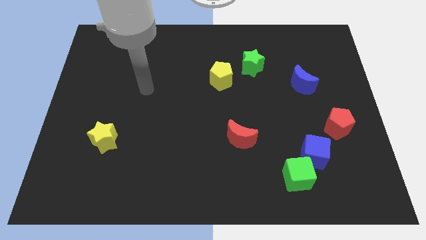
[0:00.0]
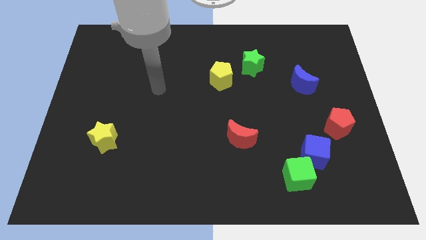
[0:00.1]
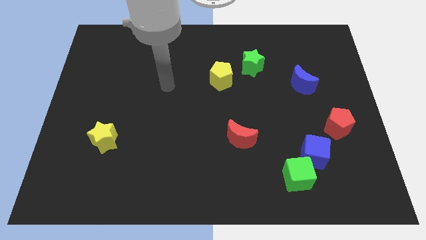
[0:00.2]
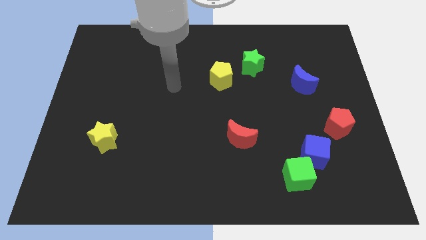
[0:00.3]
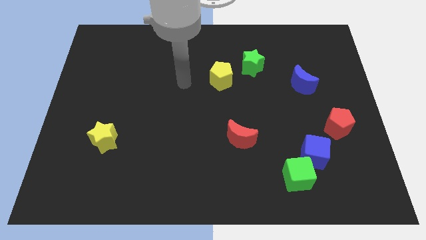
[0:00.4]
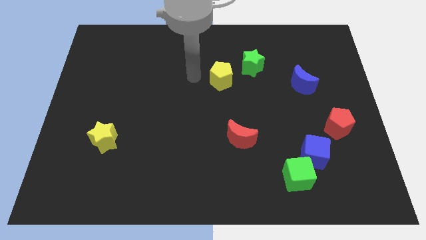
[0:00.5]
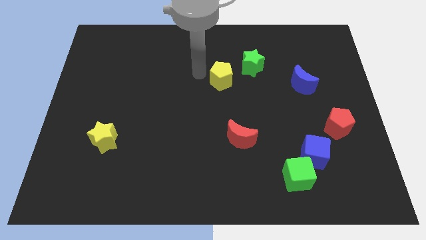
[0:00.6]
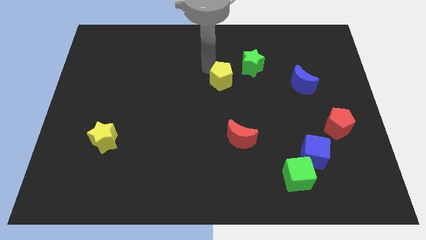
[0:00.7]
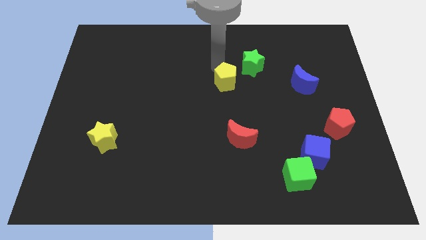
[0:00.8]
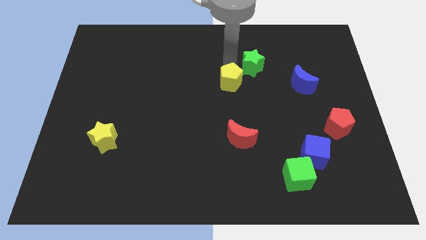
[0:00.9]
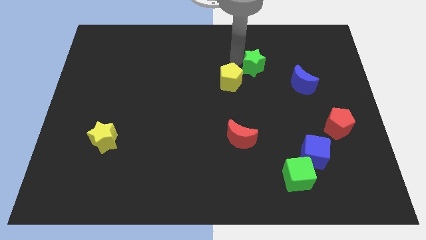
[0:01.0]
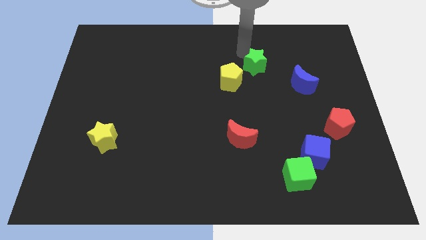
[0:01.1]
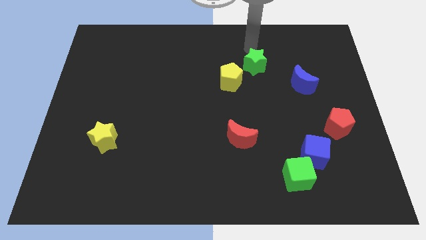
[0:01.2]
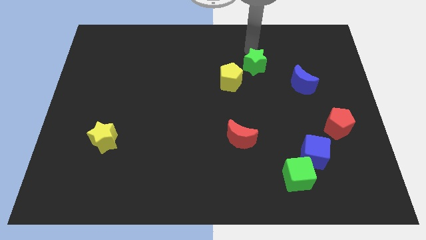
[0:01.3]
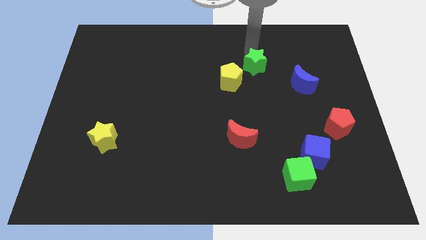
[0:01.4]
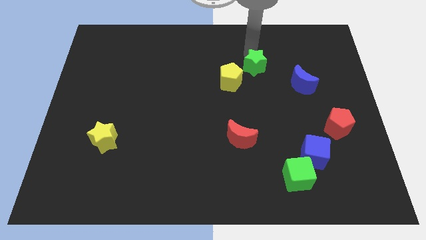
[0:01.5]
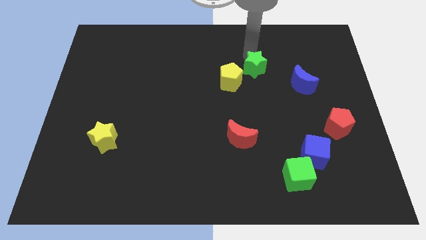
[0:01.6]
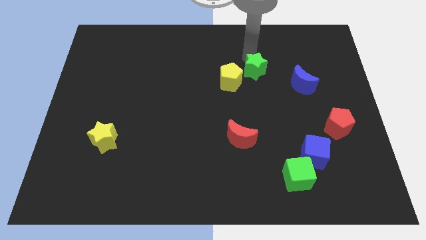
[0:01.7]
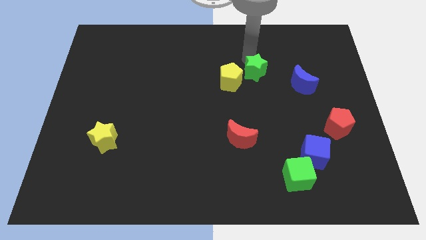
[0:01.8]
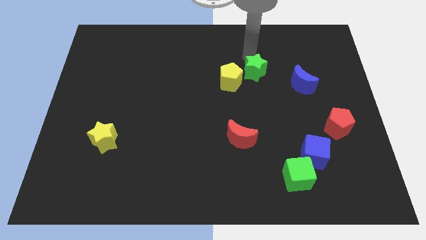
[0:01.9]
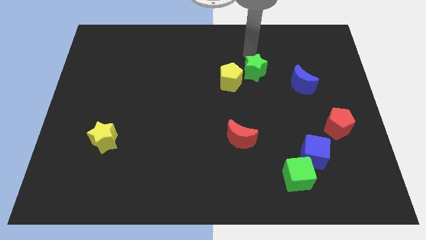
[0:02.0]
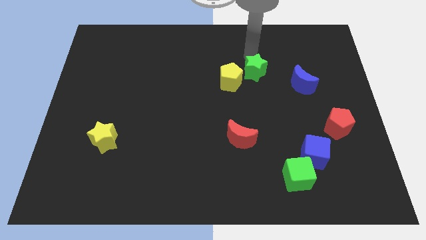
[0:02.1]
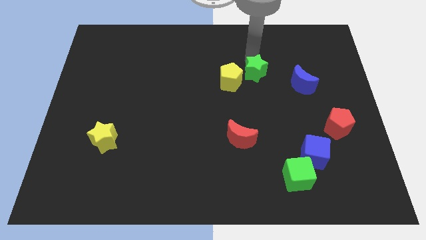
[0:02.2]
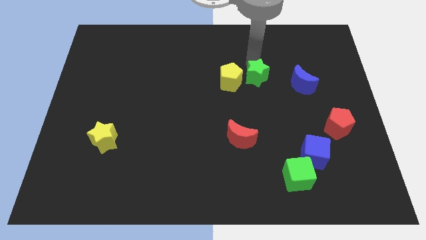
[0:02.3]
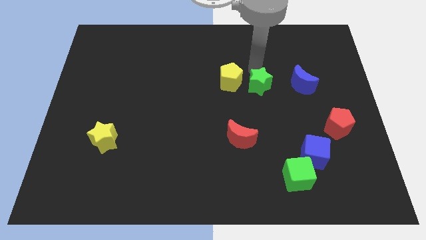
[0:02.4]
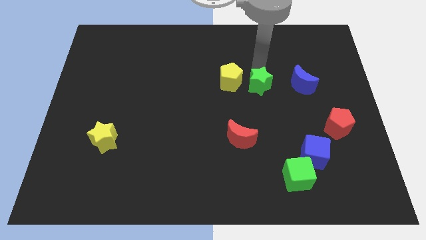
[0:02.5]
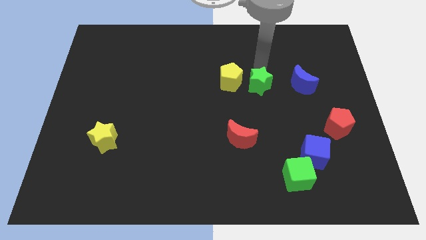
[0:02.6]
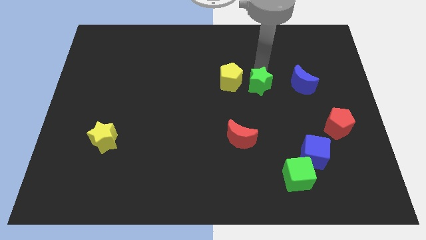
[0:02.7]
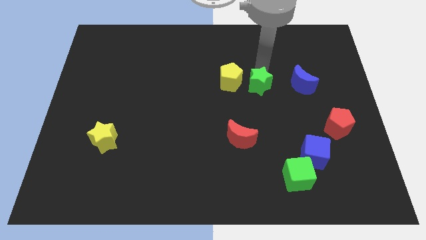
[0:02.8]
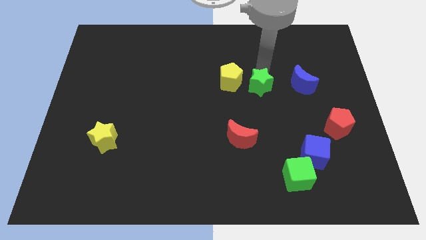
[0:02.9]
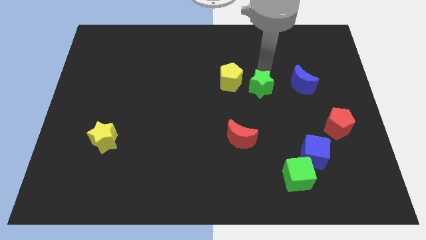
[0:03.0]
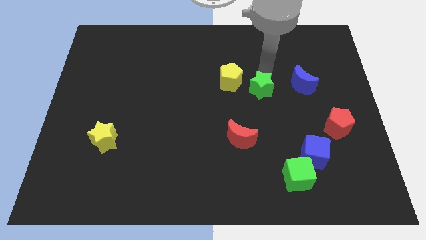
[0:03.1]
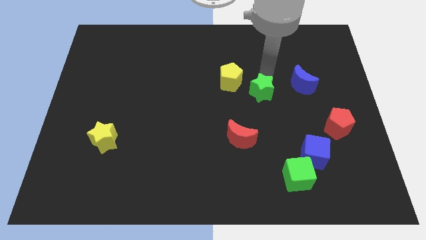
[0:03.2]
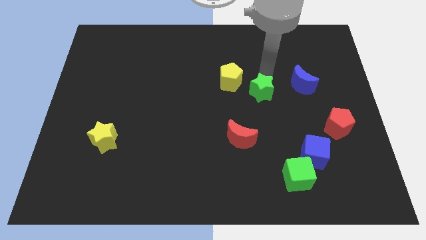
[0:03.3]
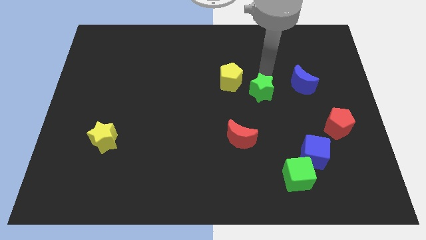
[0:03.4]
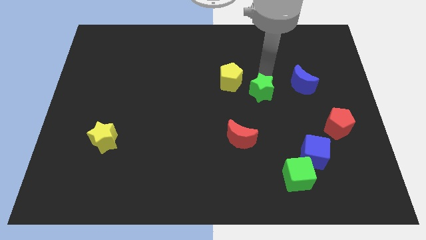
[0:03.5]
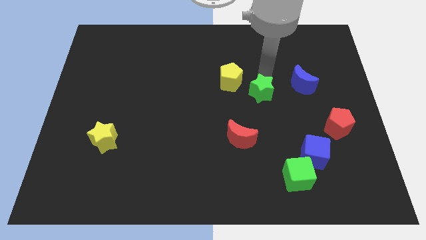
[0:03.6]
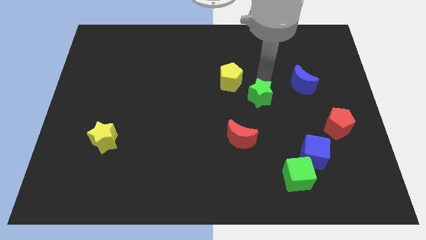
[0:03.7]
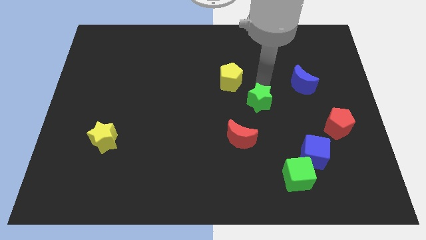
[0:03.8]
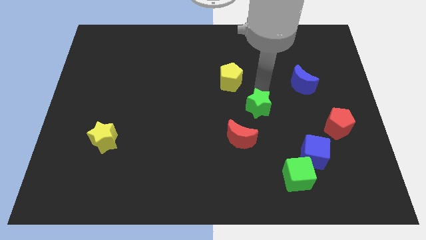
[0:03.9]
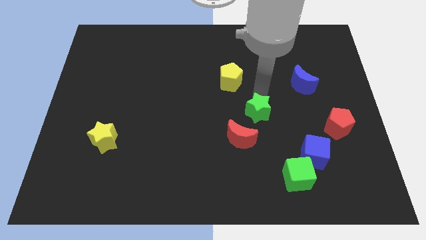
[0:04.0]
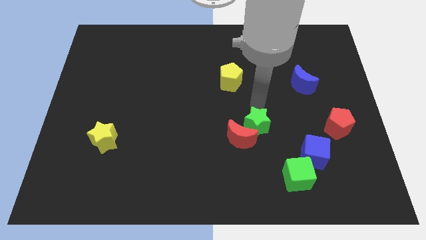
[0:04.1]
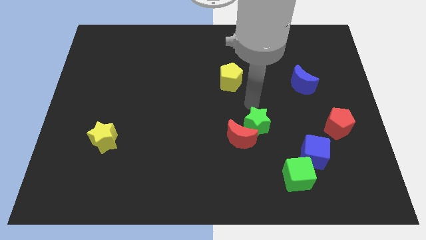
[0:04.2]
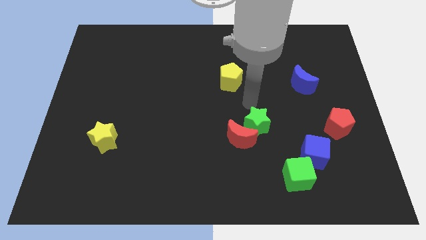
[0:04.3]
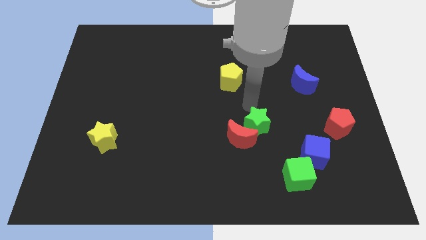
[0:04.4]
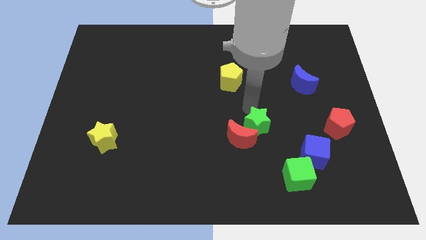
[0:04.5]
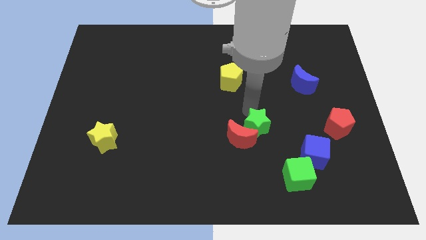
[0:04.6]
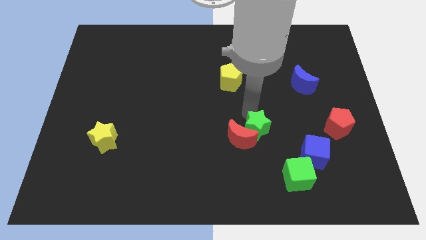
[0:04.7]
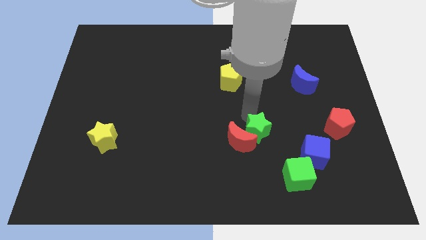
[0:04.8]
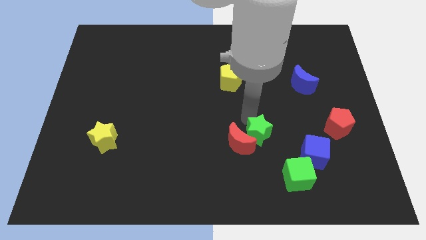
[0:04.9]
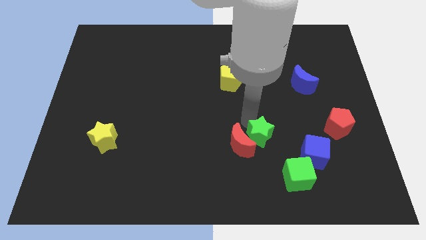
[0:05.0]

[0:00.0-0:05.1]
put the green star to the left side of the blue cube
